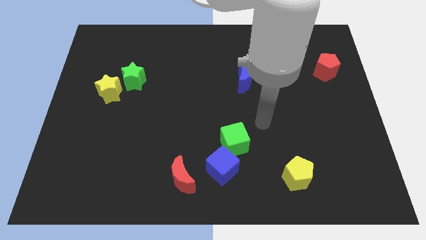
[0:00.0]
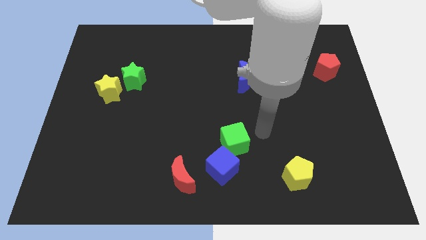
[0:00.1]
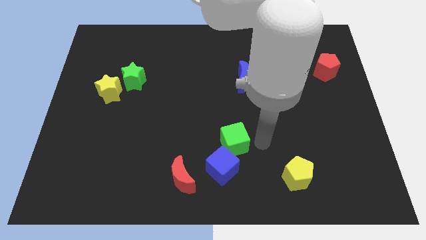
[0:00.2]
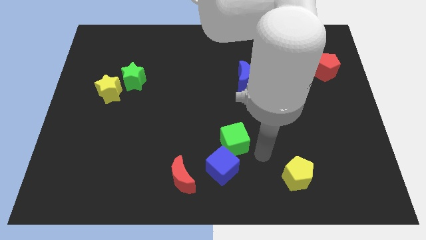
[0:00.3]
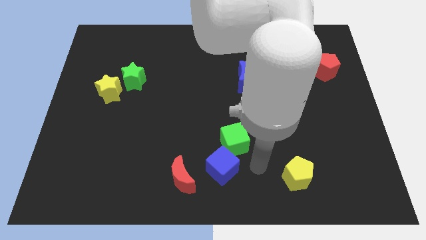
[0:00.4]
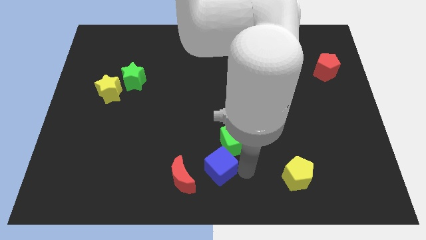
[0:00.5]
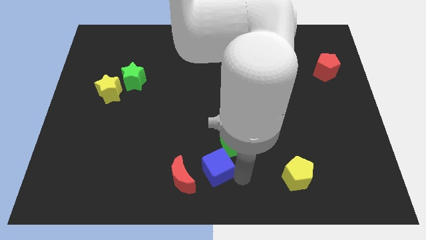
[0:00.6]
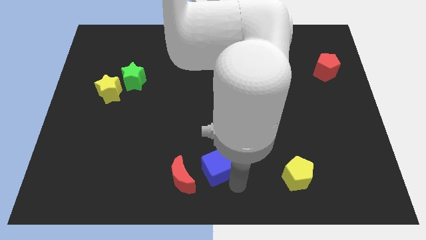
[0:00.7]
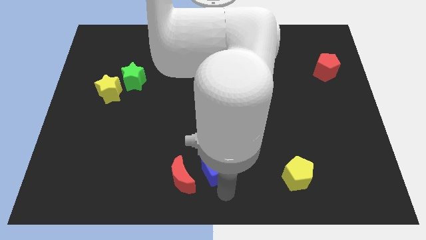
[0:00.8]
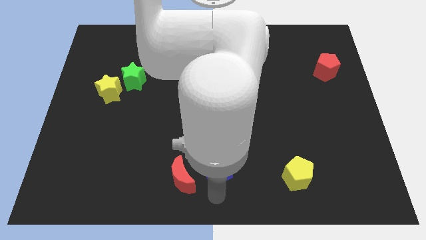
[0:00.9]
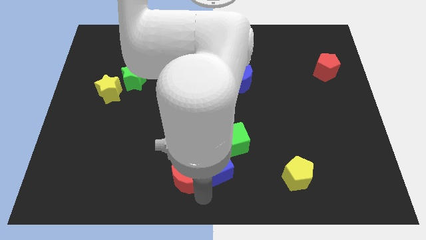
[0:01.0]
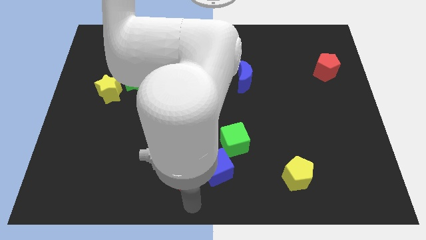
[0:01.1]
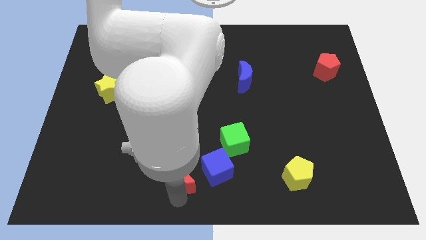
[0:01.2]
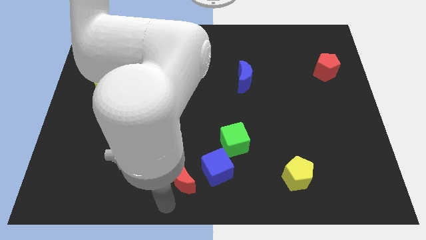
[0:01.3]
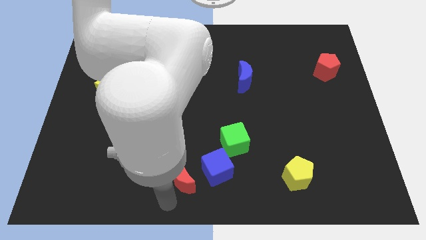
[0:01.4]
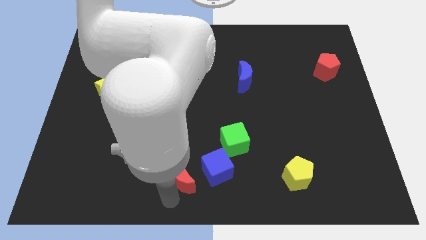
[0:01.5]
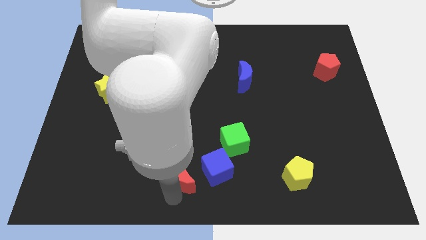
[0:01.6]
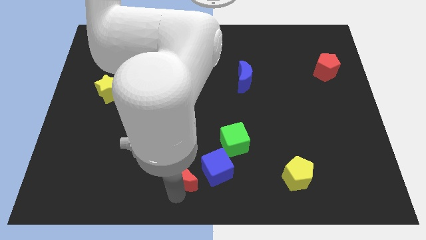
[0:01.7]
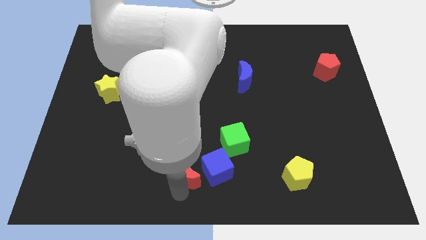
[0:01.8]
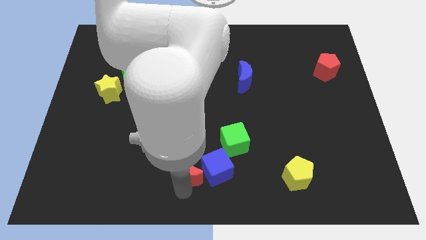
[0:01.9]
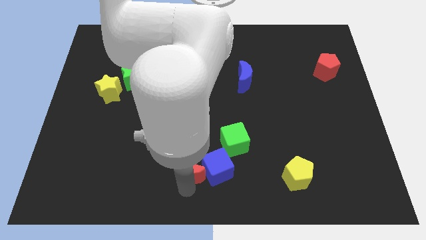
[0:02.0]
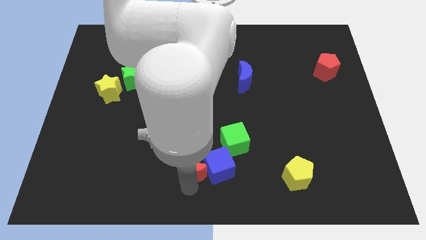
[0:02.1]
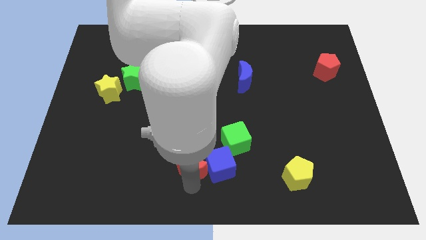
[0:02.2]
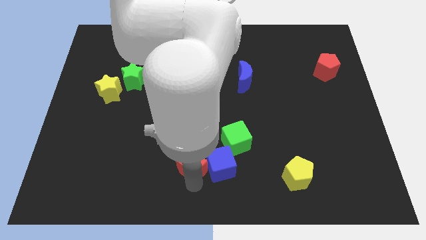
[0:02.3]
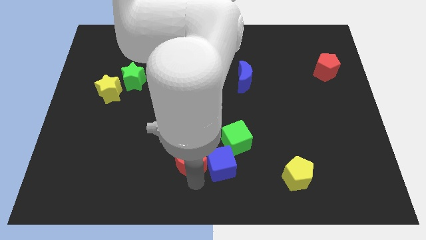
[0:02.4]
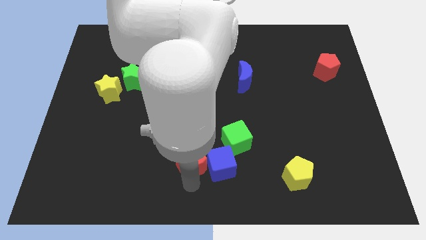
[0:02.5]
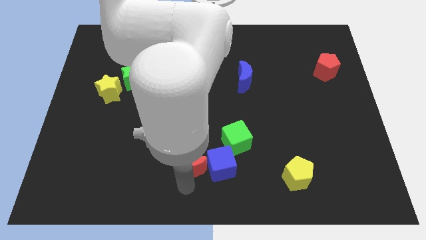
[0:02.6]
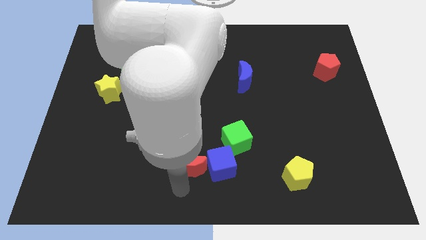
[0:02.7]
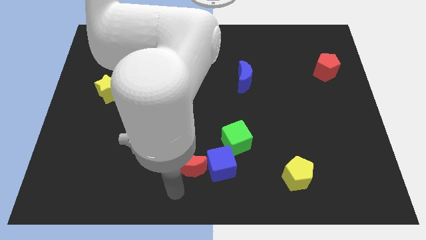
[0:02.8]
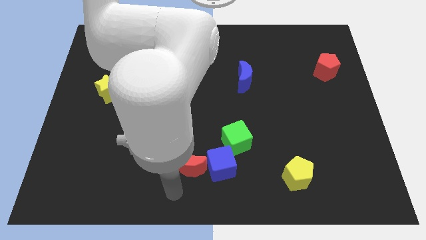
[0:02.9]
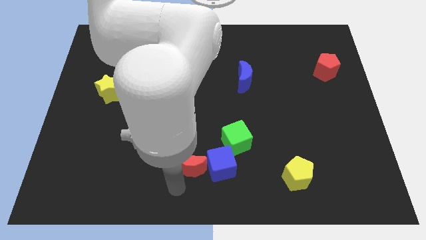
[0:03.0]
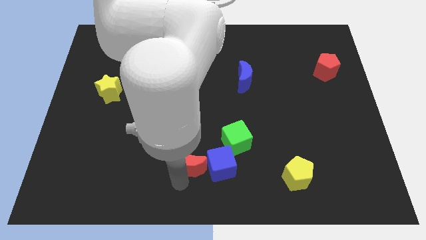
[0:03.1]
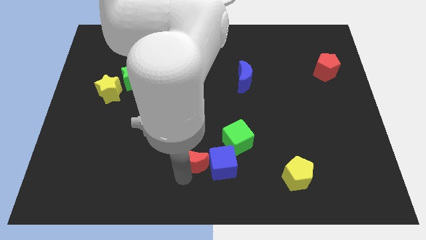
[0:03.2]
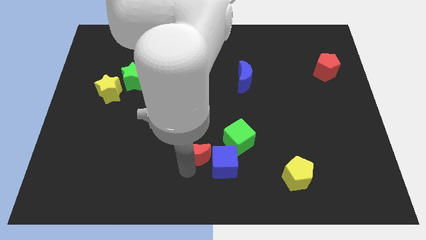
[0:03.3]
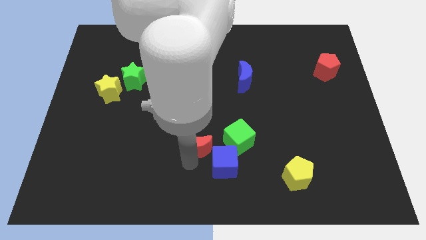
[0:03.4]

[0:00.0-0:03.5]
slightly push the red moon upwards and right diagonally

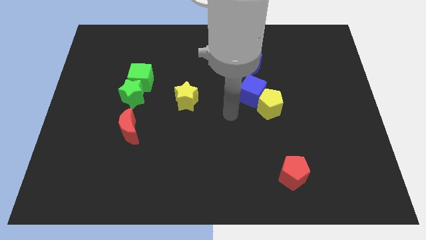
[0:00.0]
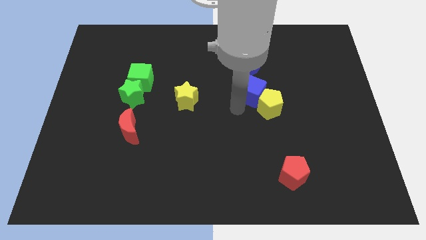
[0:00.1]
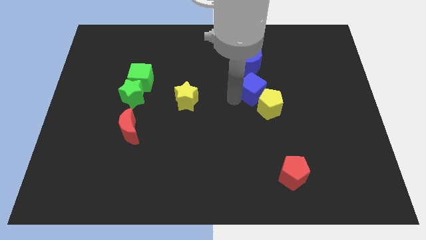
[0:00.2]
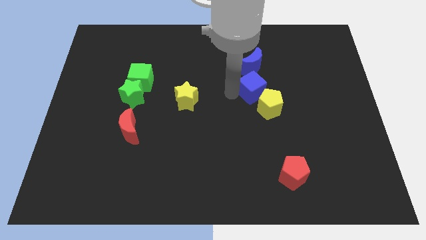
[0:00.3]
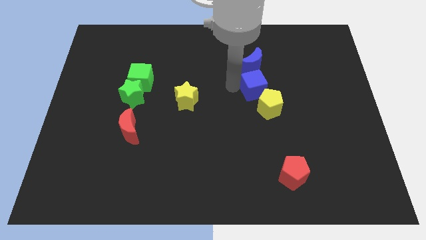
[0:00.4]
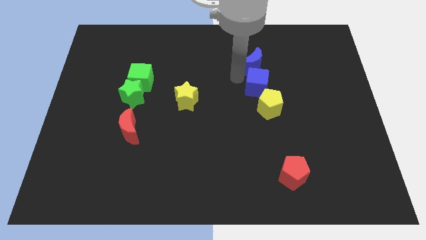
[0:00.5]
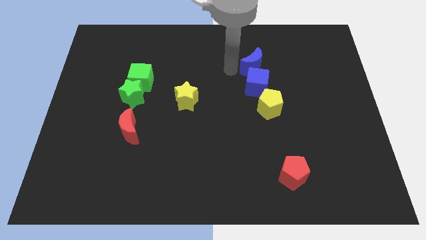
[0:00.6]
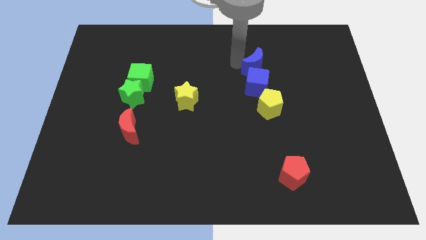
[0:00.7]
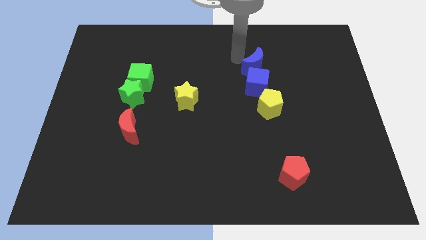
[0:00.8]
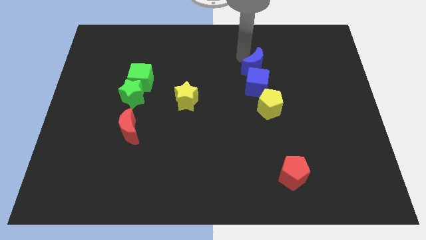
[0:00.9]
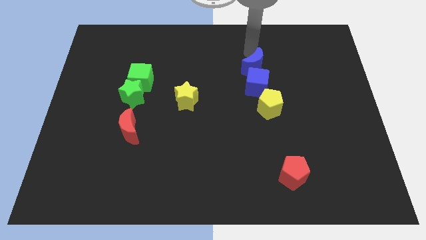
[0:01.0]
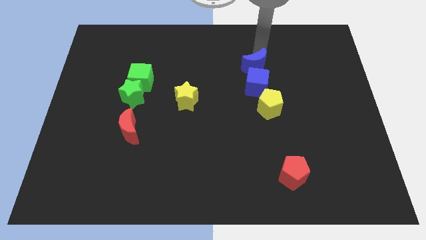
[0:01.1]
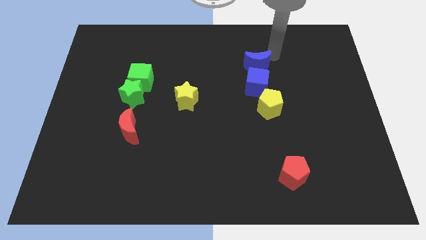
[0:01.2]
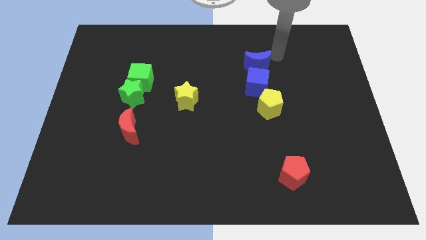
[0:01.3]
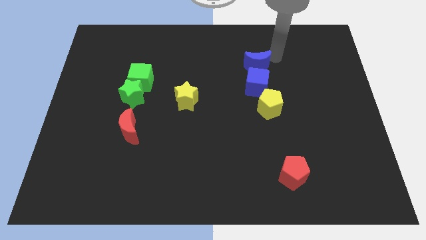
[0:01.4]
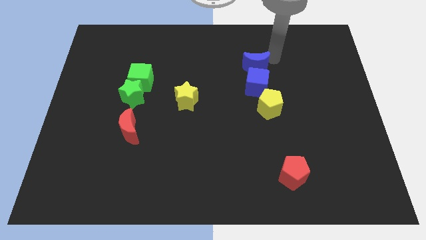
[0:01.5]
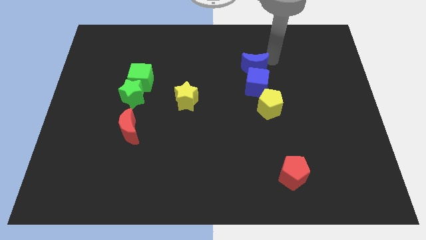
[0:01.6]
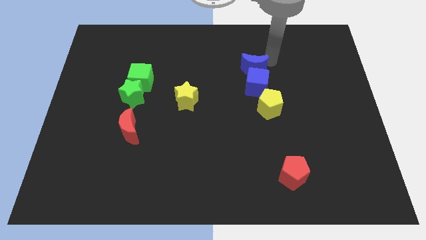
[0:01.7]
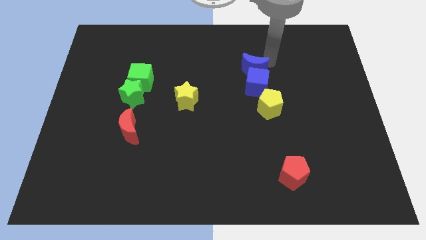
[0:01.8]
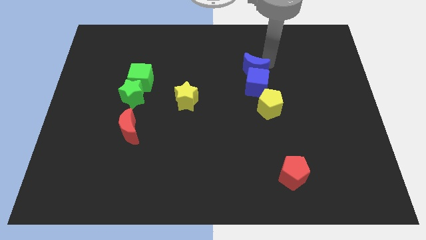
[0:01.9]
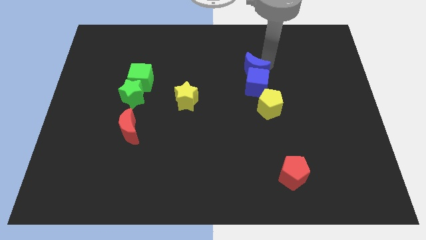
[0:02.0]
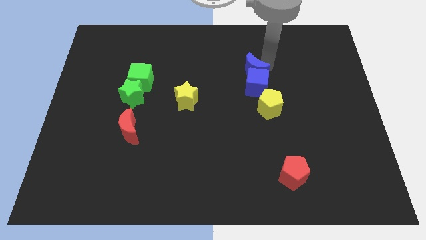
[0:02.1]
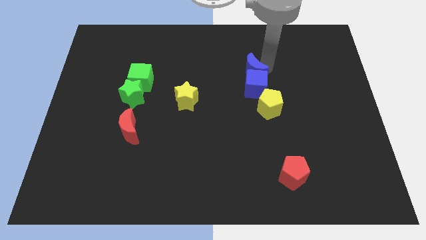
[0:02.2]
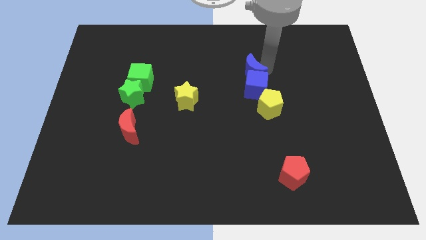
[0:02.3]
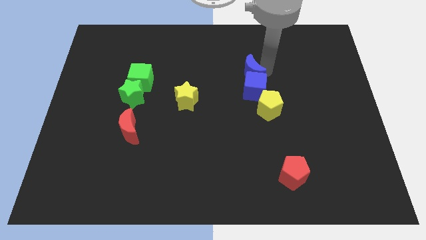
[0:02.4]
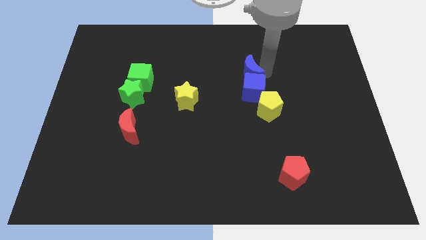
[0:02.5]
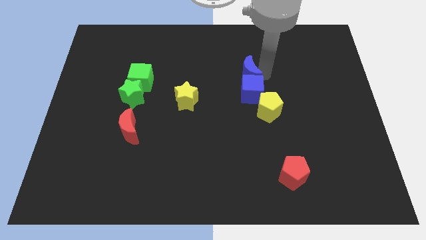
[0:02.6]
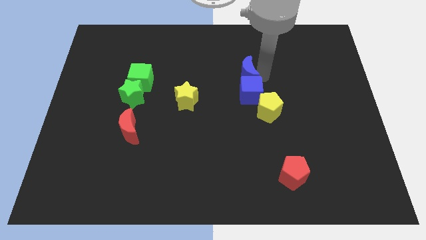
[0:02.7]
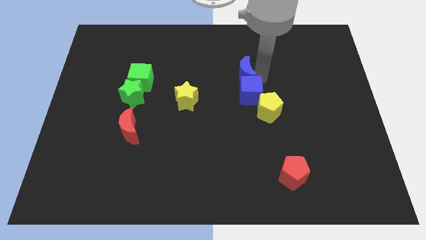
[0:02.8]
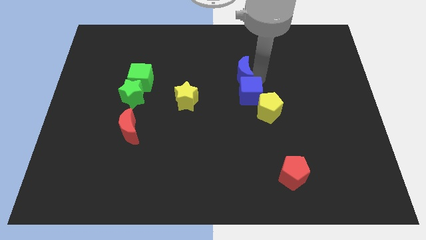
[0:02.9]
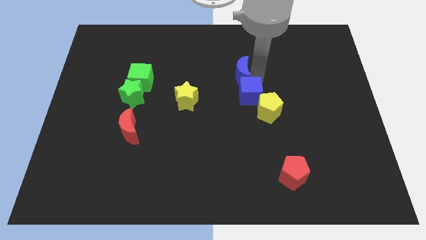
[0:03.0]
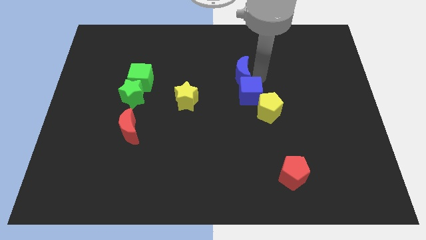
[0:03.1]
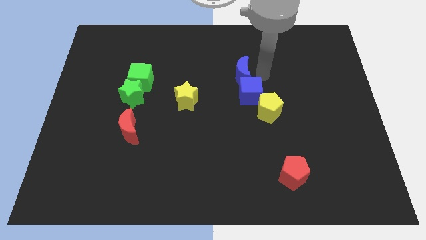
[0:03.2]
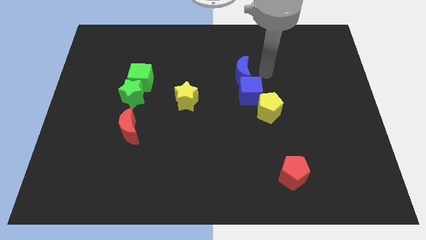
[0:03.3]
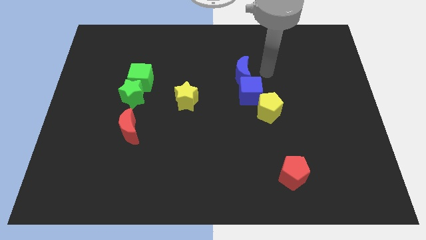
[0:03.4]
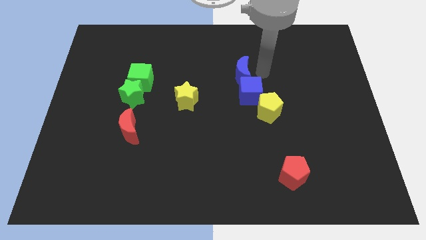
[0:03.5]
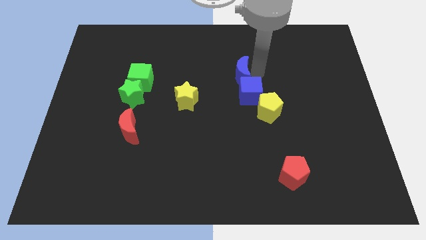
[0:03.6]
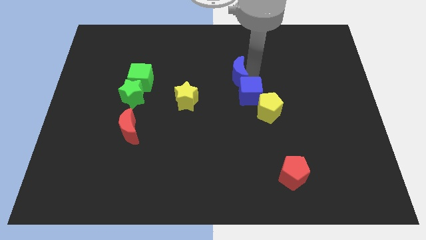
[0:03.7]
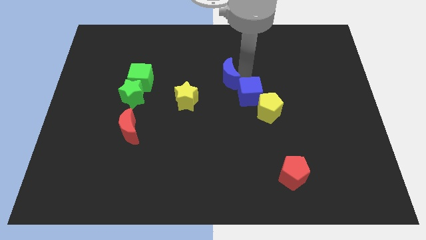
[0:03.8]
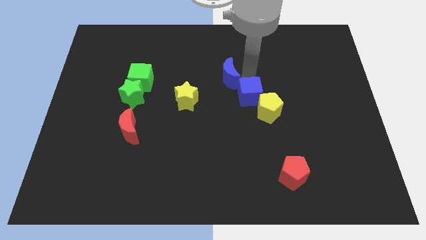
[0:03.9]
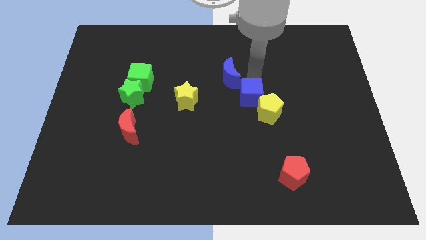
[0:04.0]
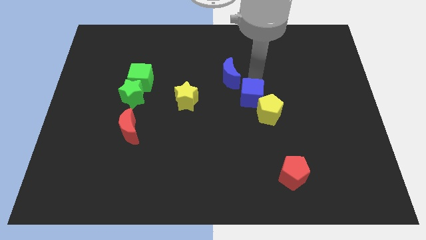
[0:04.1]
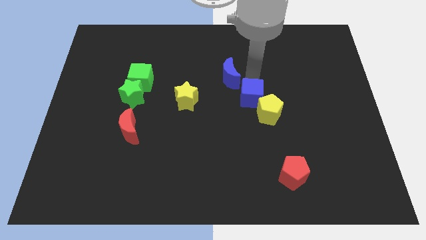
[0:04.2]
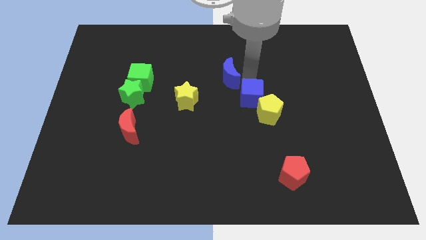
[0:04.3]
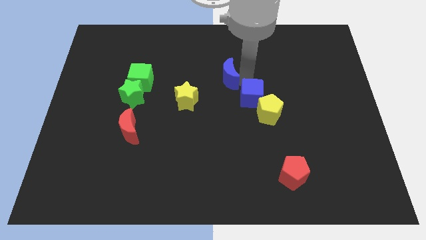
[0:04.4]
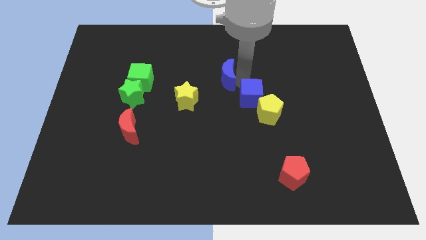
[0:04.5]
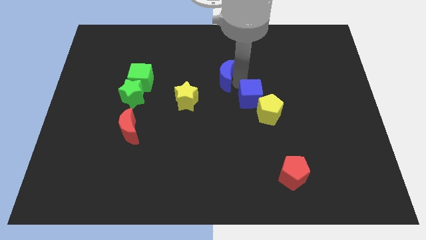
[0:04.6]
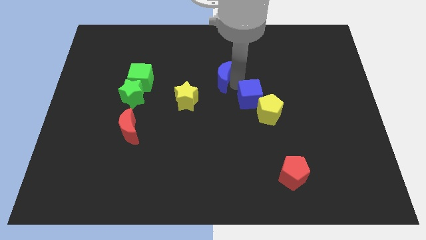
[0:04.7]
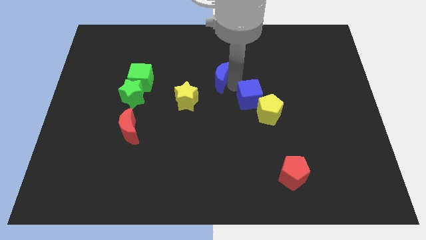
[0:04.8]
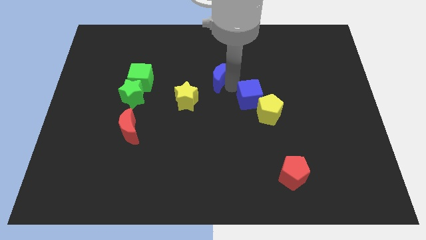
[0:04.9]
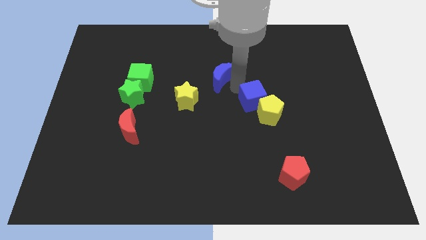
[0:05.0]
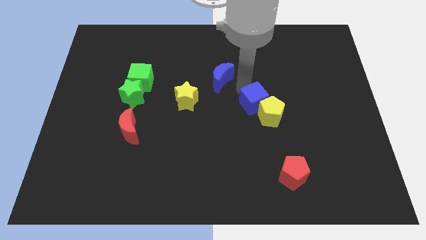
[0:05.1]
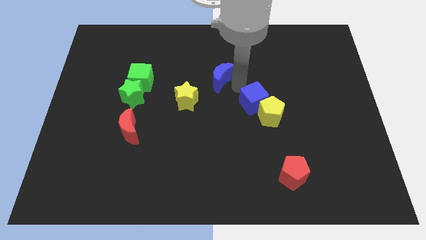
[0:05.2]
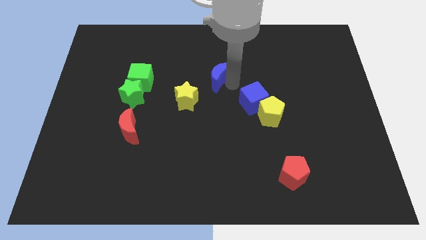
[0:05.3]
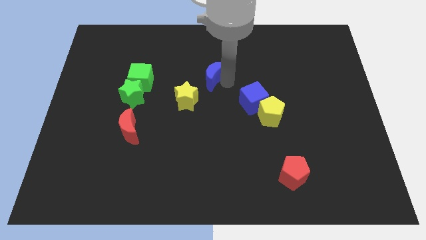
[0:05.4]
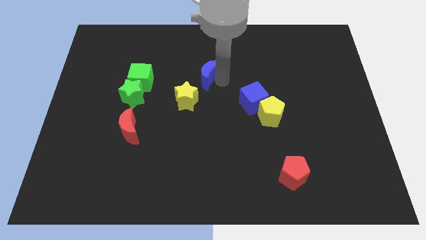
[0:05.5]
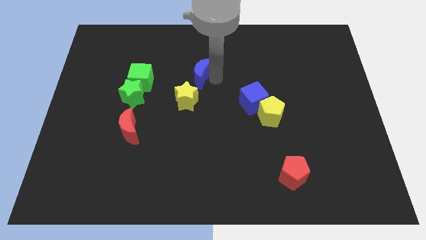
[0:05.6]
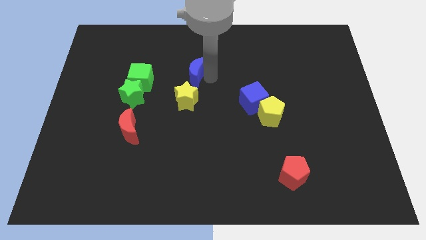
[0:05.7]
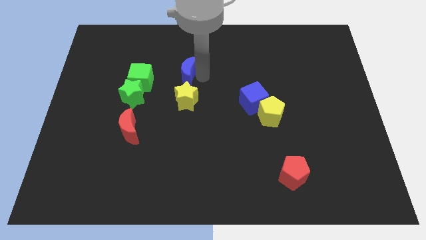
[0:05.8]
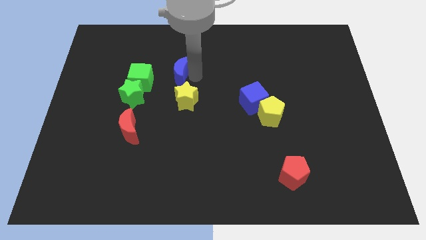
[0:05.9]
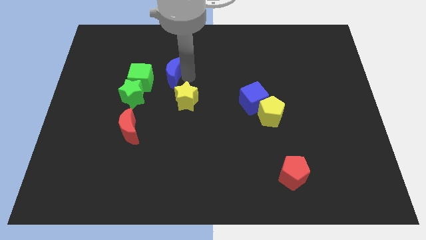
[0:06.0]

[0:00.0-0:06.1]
push the blue moon to the left
